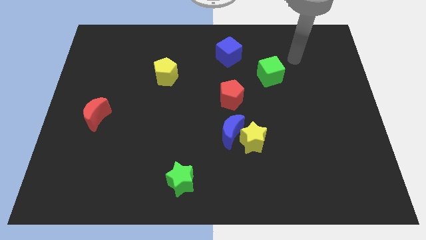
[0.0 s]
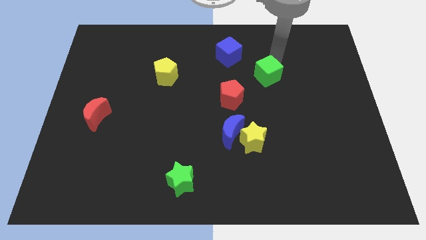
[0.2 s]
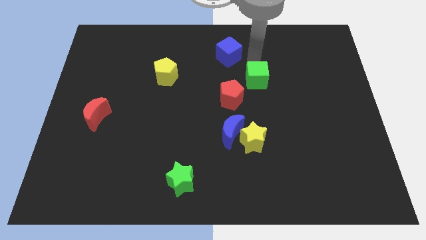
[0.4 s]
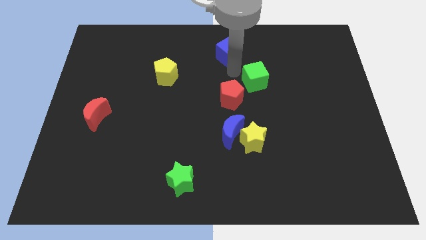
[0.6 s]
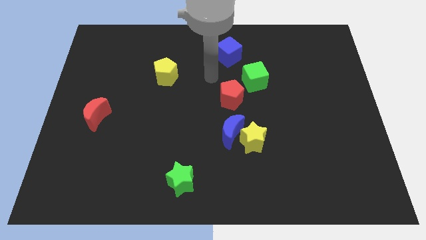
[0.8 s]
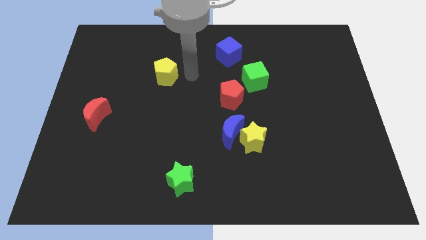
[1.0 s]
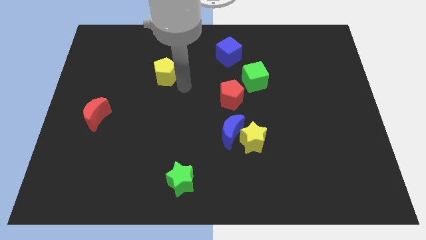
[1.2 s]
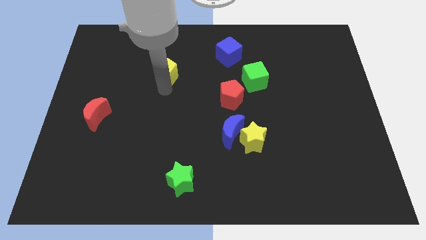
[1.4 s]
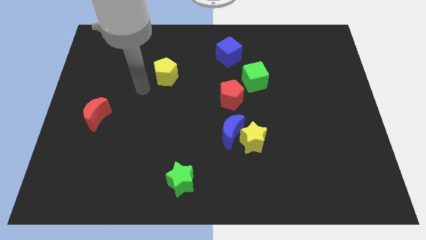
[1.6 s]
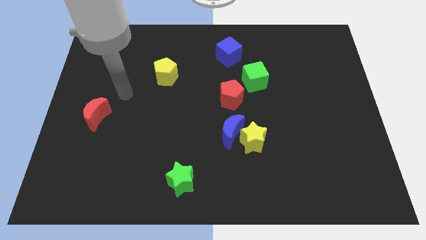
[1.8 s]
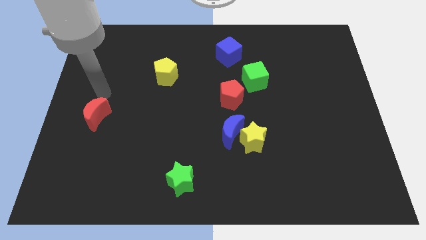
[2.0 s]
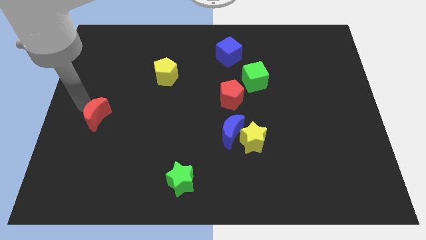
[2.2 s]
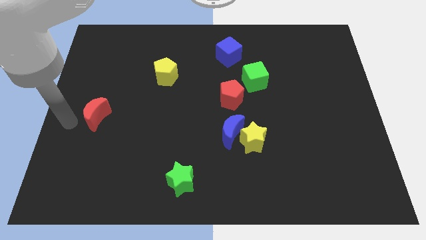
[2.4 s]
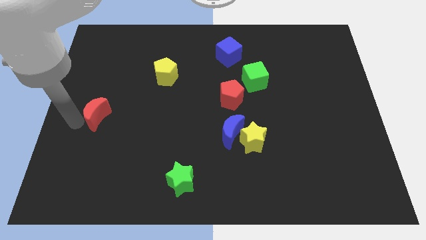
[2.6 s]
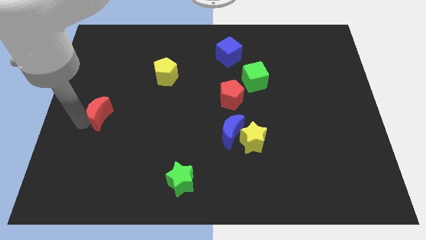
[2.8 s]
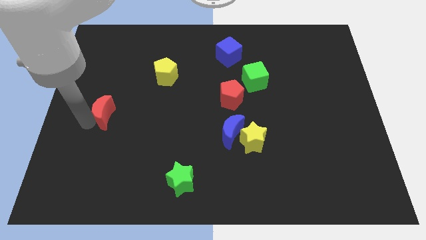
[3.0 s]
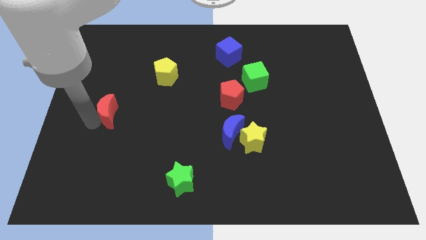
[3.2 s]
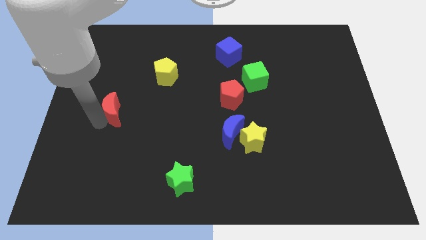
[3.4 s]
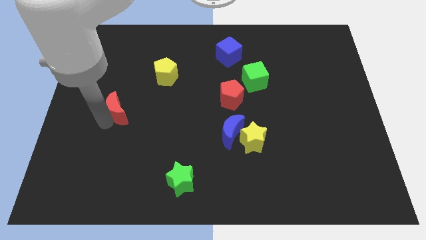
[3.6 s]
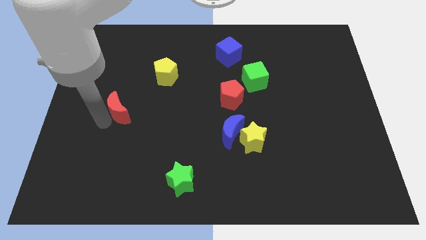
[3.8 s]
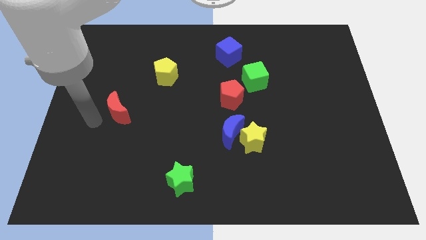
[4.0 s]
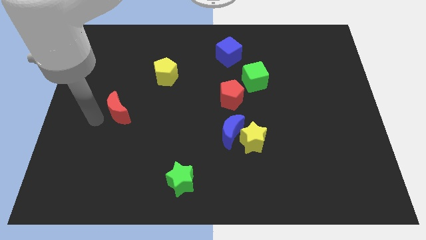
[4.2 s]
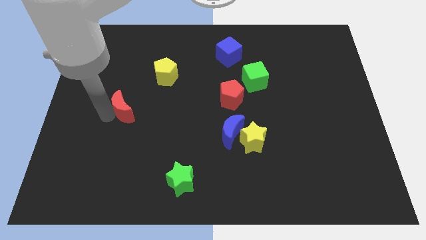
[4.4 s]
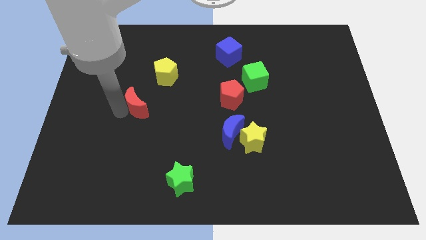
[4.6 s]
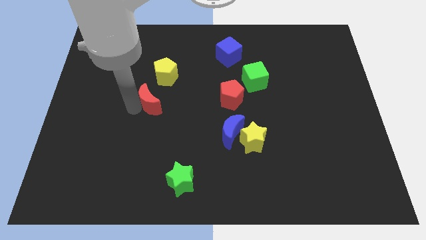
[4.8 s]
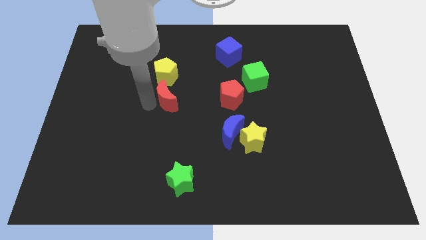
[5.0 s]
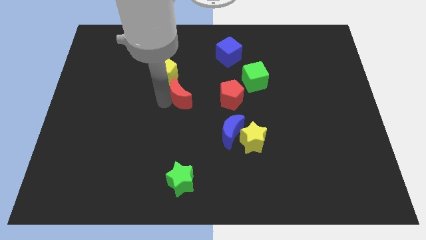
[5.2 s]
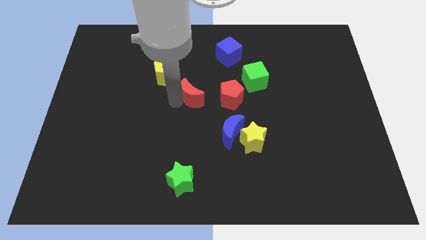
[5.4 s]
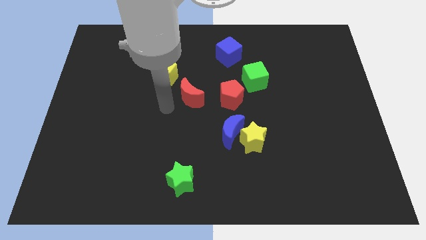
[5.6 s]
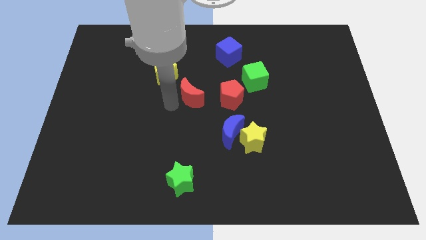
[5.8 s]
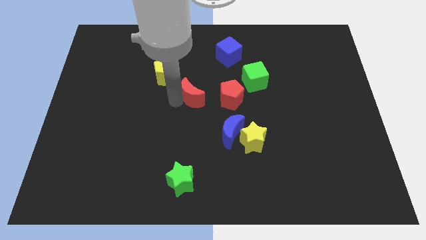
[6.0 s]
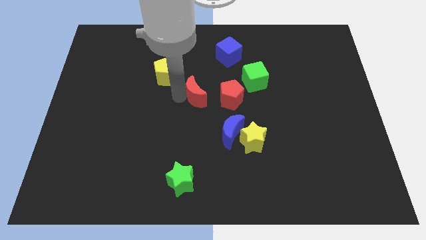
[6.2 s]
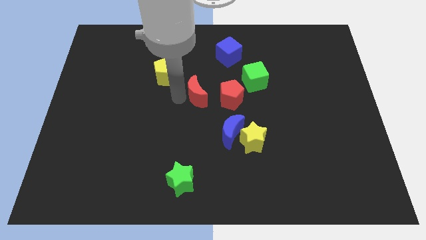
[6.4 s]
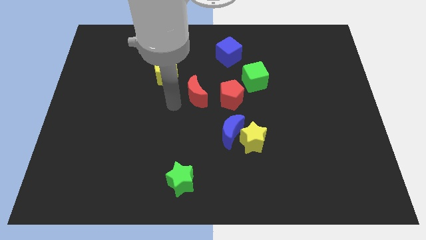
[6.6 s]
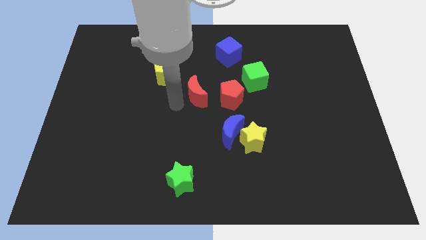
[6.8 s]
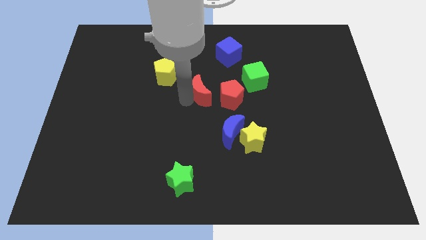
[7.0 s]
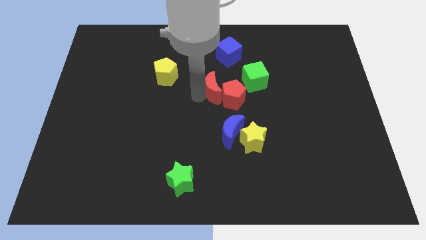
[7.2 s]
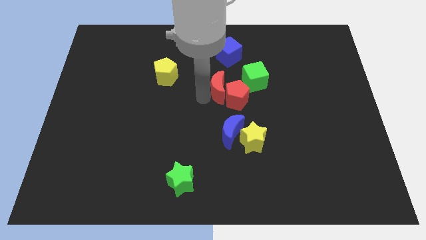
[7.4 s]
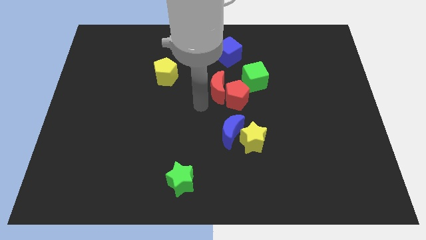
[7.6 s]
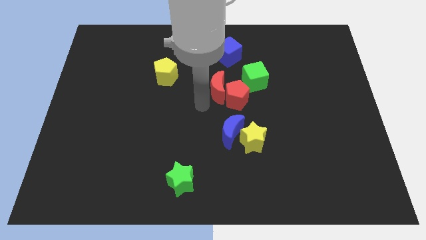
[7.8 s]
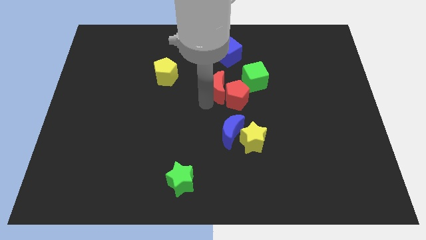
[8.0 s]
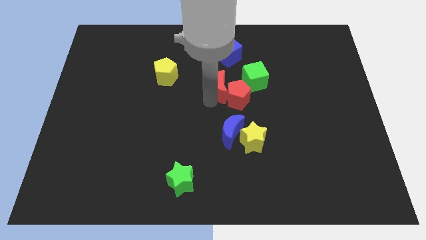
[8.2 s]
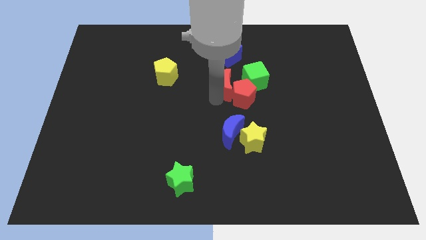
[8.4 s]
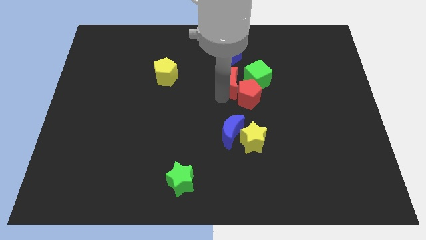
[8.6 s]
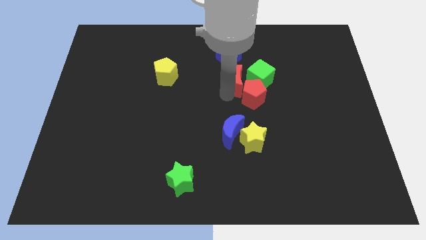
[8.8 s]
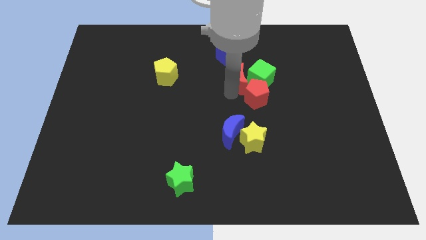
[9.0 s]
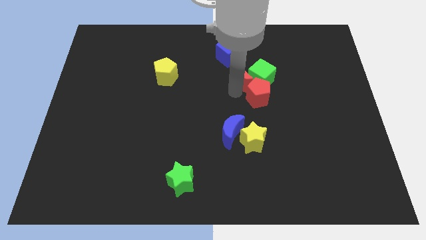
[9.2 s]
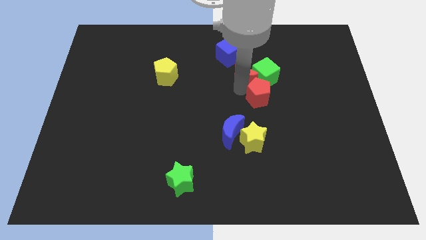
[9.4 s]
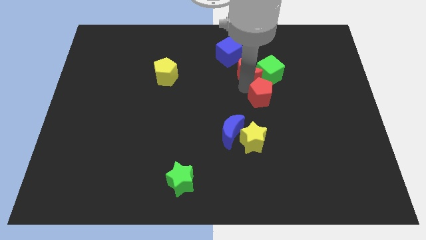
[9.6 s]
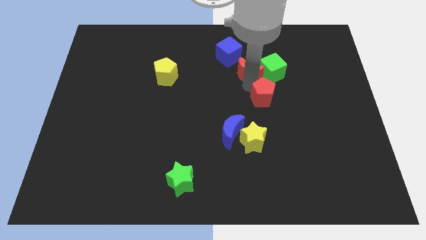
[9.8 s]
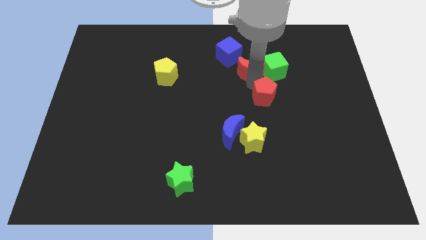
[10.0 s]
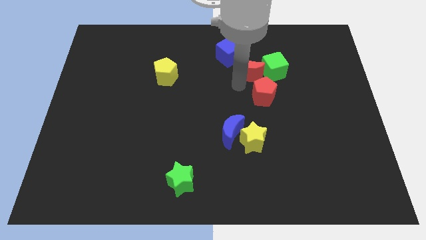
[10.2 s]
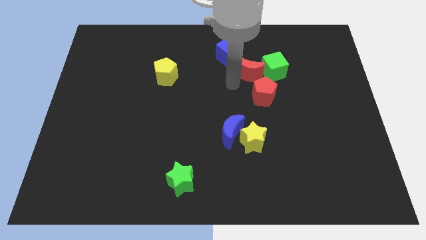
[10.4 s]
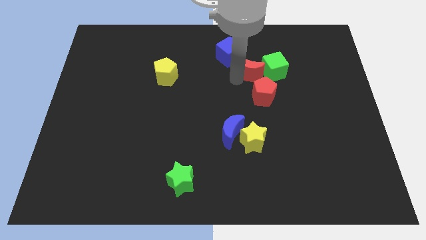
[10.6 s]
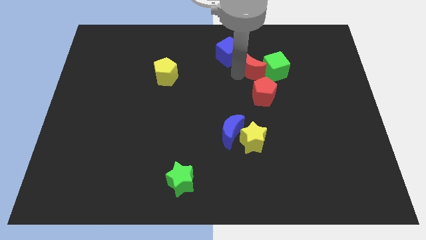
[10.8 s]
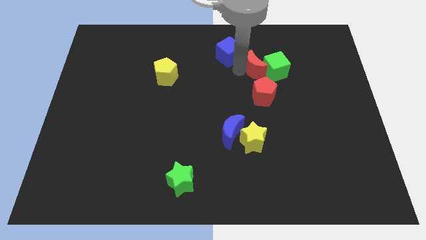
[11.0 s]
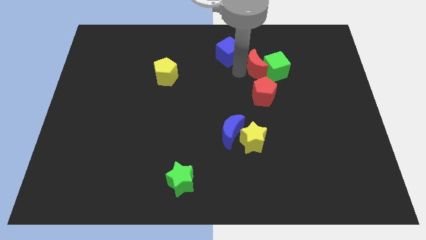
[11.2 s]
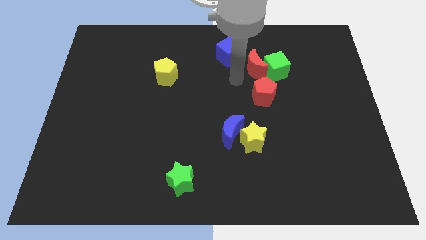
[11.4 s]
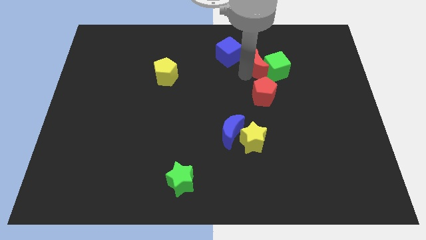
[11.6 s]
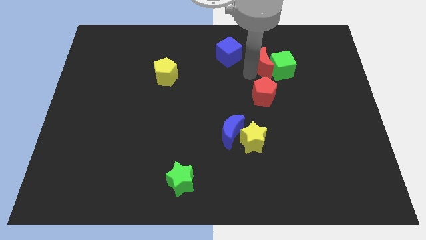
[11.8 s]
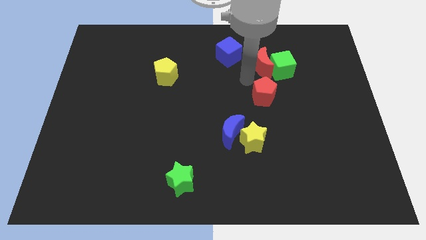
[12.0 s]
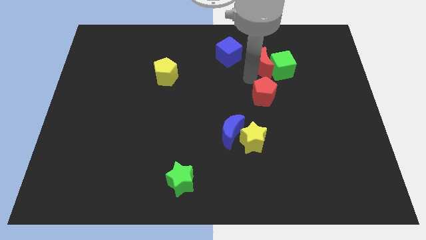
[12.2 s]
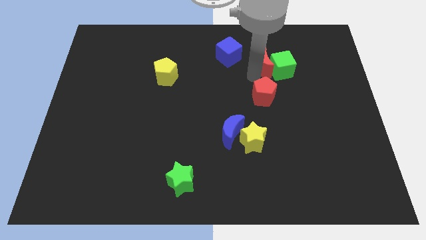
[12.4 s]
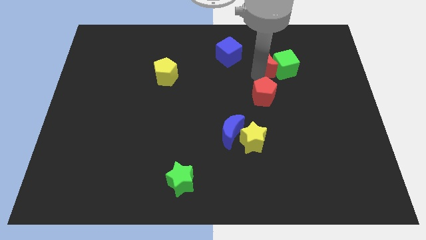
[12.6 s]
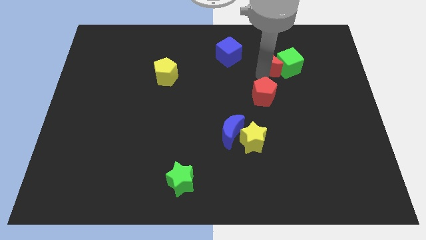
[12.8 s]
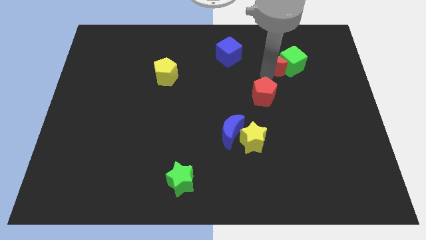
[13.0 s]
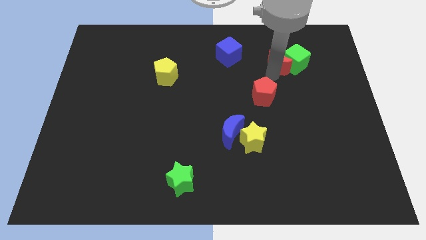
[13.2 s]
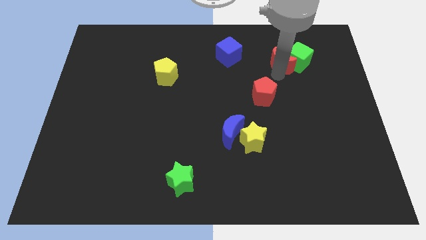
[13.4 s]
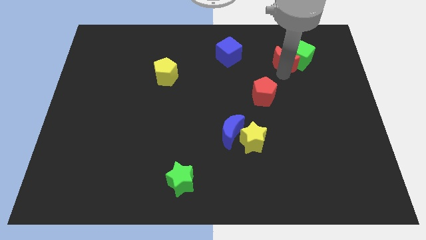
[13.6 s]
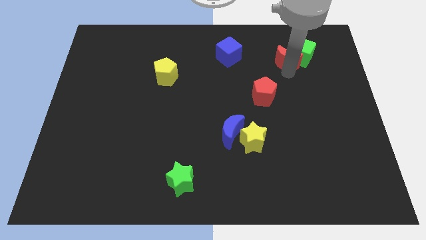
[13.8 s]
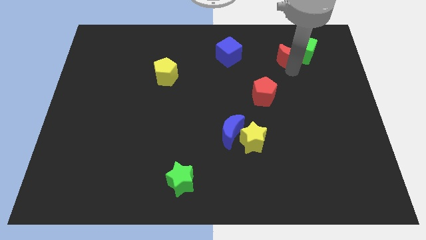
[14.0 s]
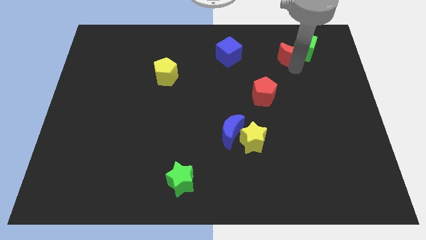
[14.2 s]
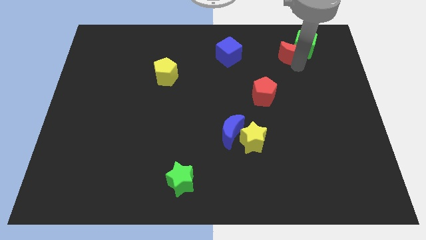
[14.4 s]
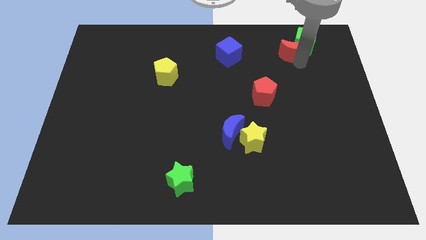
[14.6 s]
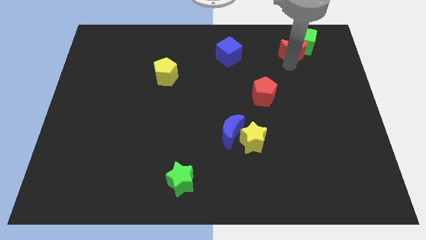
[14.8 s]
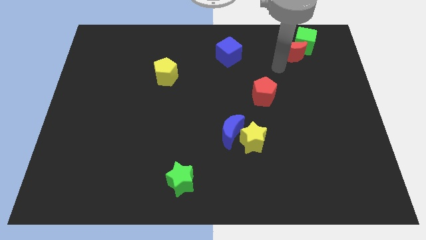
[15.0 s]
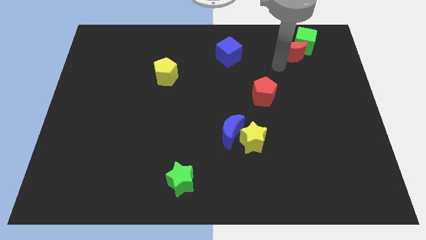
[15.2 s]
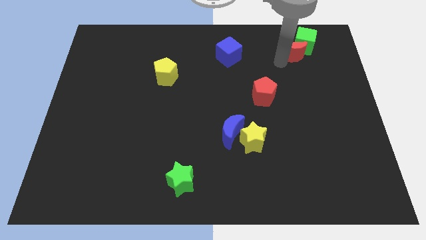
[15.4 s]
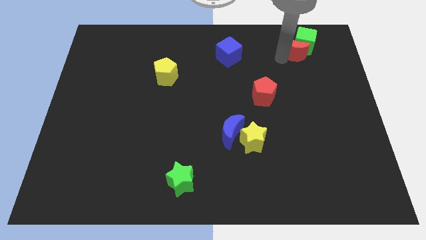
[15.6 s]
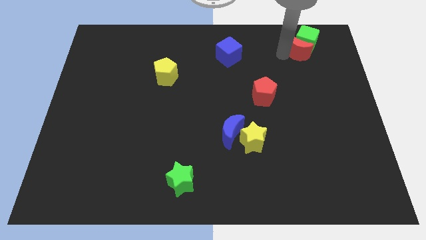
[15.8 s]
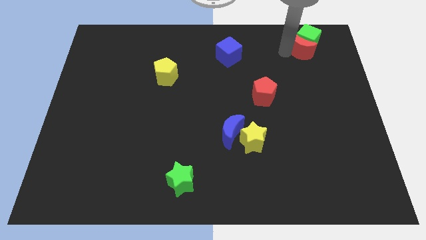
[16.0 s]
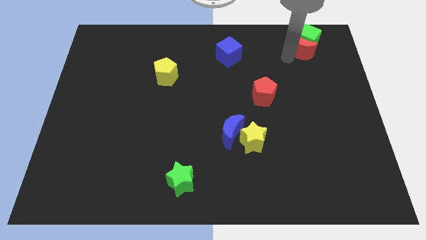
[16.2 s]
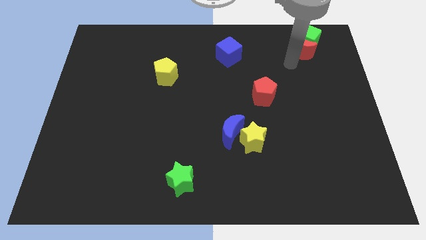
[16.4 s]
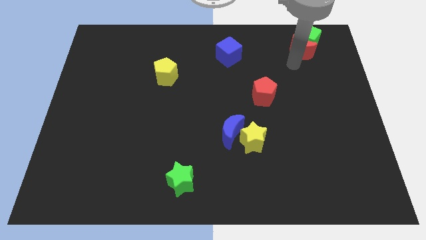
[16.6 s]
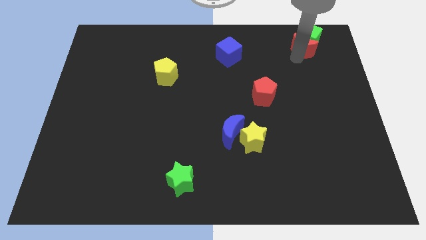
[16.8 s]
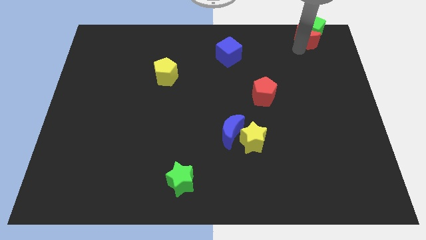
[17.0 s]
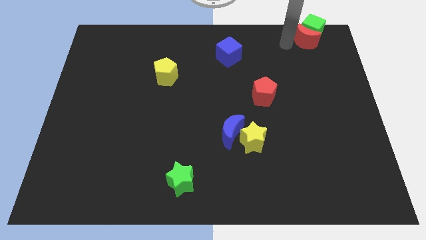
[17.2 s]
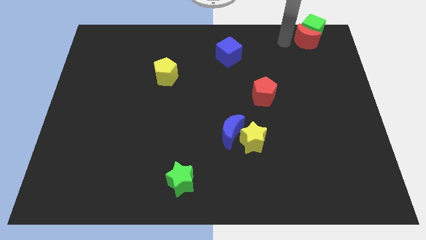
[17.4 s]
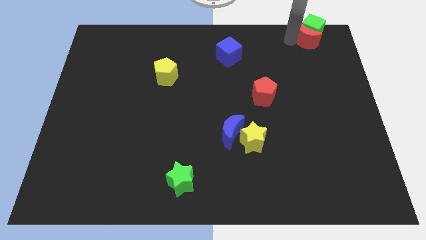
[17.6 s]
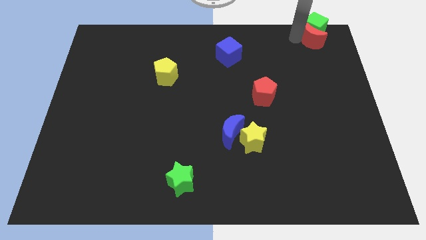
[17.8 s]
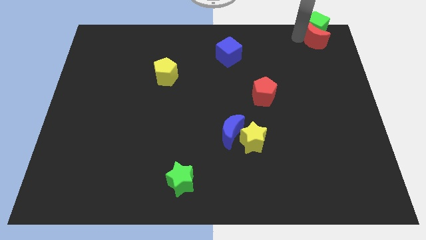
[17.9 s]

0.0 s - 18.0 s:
push the red moon to the upper right corner
